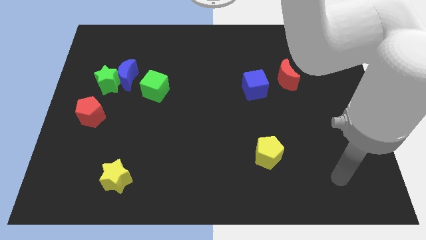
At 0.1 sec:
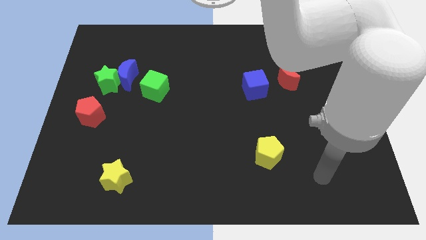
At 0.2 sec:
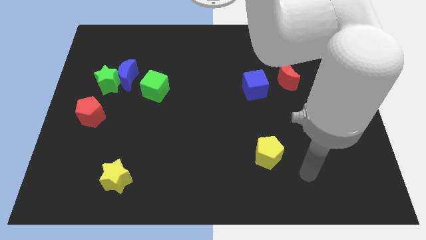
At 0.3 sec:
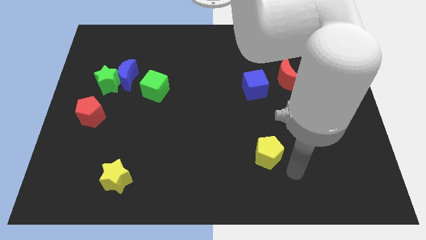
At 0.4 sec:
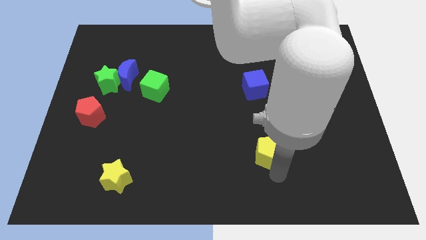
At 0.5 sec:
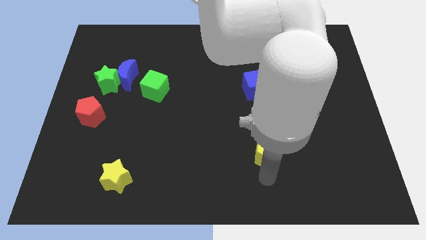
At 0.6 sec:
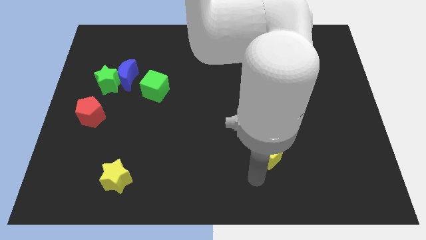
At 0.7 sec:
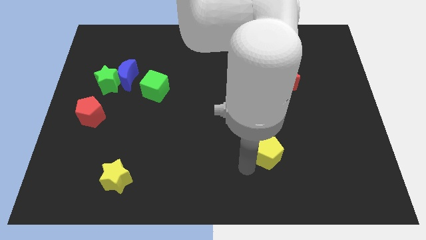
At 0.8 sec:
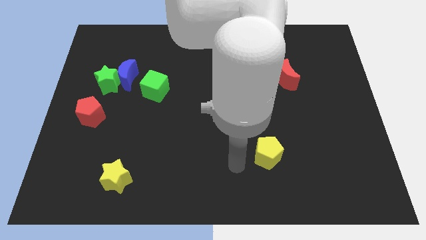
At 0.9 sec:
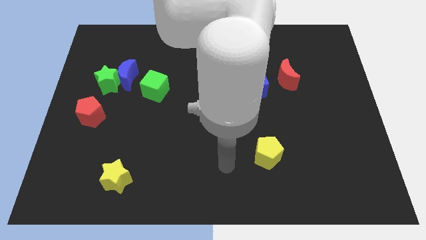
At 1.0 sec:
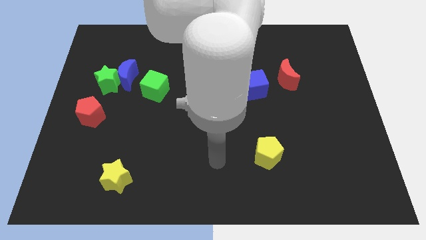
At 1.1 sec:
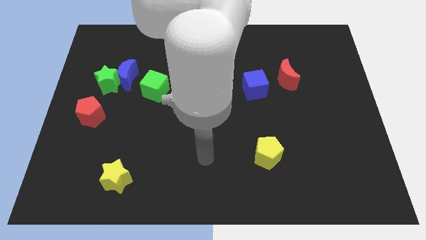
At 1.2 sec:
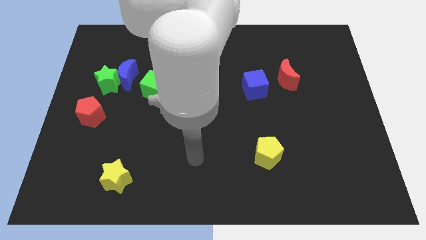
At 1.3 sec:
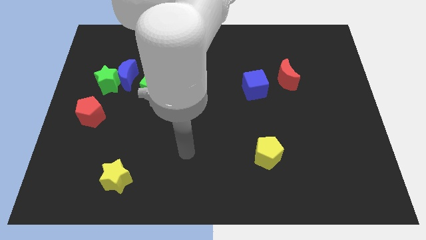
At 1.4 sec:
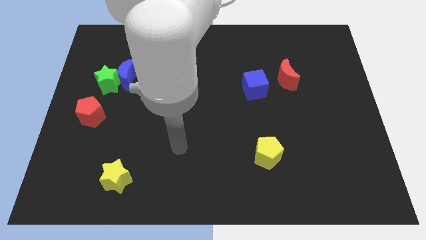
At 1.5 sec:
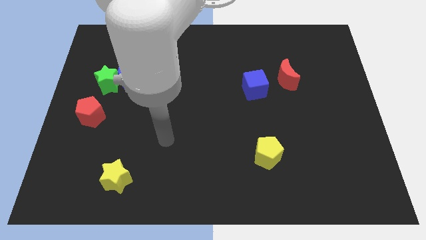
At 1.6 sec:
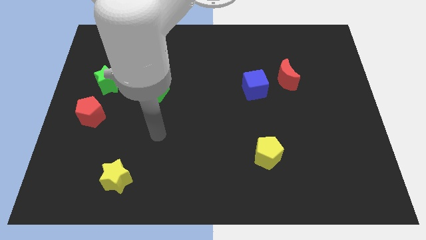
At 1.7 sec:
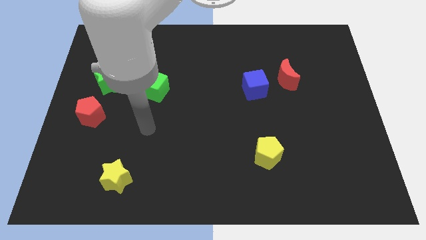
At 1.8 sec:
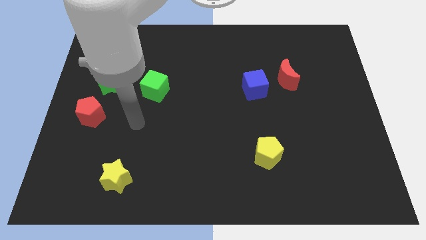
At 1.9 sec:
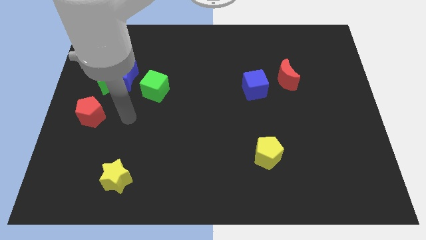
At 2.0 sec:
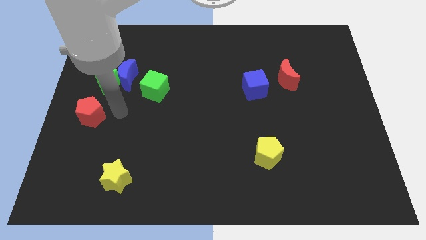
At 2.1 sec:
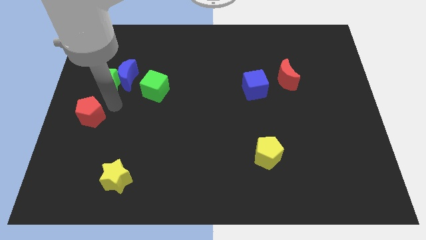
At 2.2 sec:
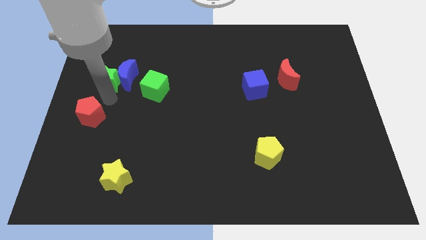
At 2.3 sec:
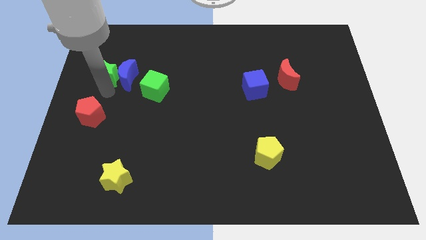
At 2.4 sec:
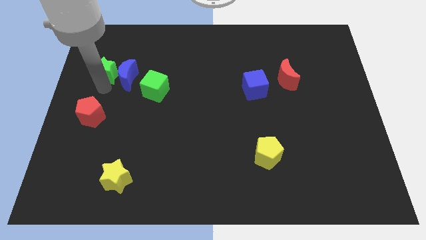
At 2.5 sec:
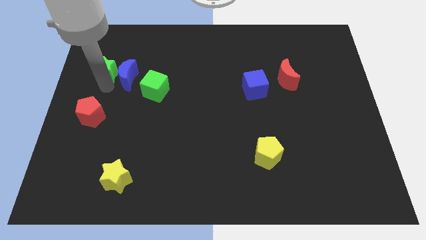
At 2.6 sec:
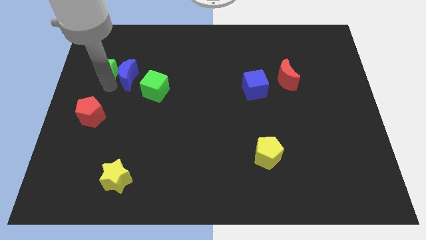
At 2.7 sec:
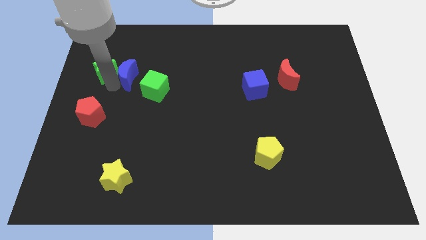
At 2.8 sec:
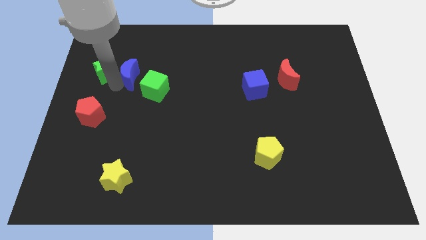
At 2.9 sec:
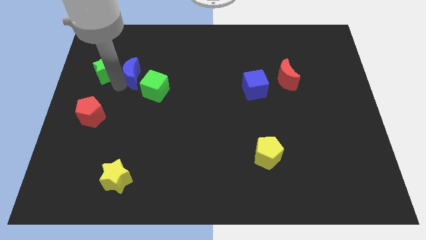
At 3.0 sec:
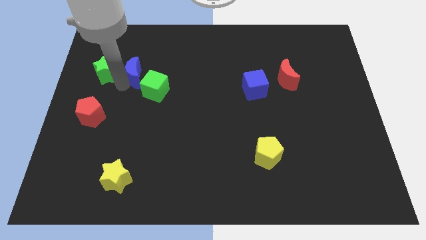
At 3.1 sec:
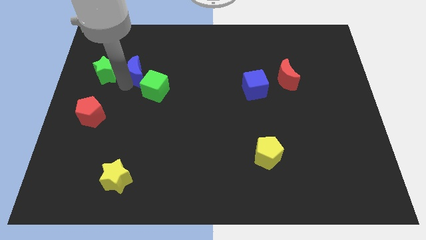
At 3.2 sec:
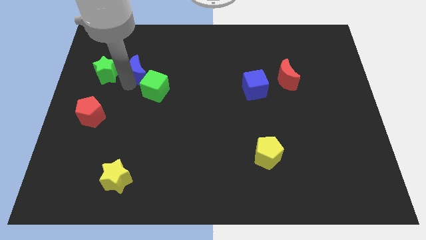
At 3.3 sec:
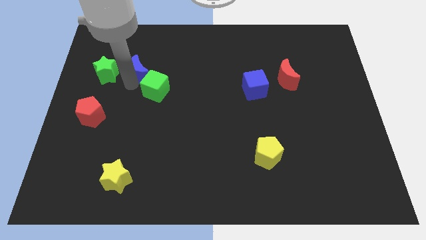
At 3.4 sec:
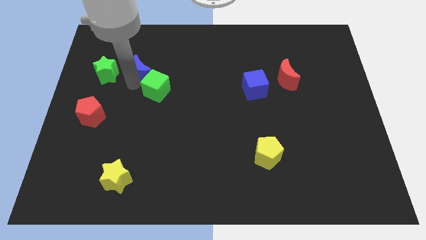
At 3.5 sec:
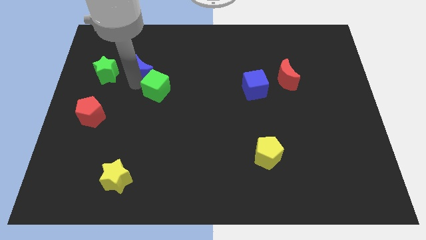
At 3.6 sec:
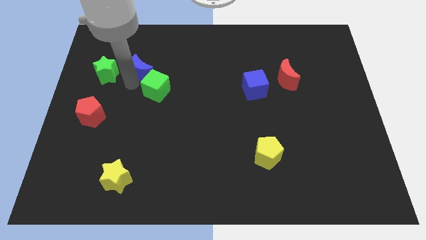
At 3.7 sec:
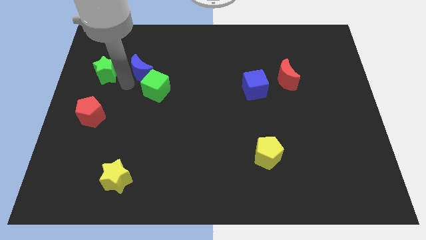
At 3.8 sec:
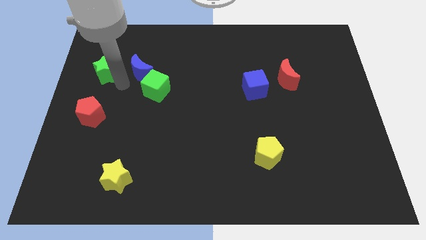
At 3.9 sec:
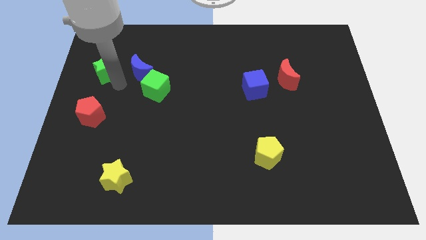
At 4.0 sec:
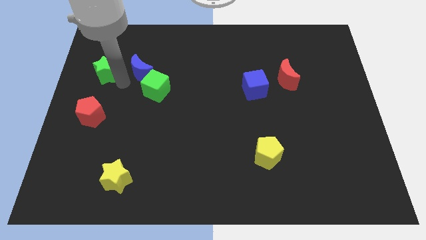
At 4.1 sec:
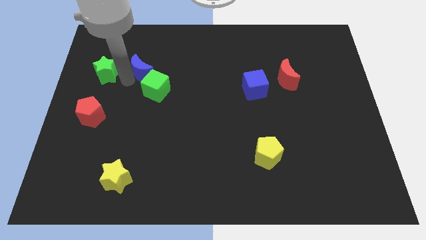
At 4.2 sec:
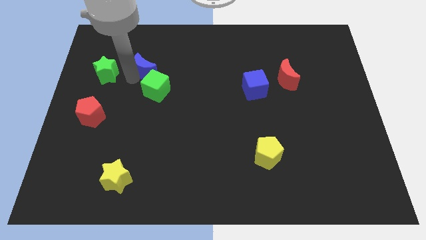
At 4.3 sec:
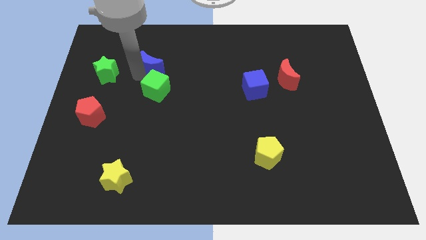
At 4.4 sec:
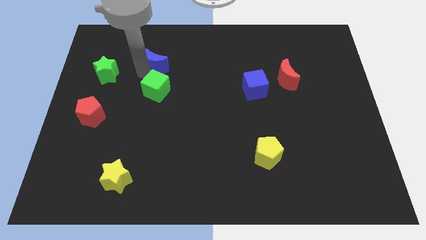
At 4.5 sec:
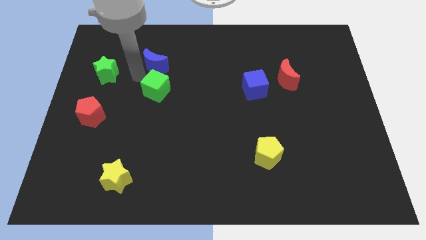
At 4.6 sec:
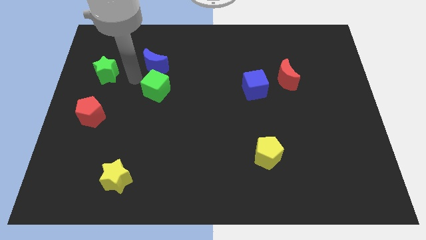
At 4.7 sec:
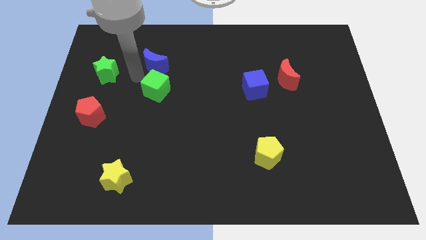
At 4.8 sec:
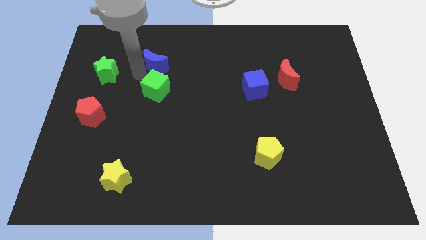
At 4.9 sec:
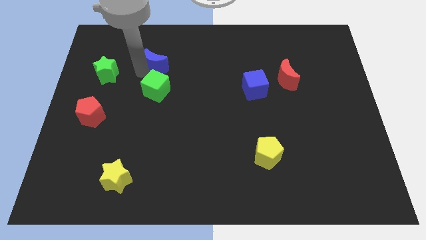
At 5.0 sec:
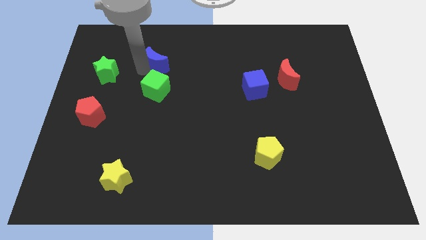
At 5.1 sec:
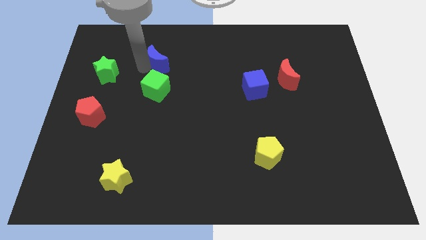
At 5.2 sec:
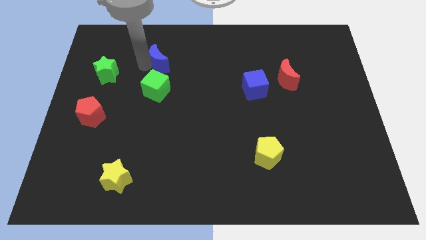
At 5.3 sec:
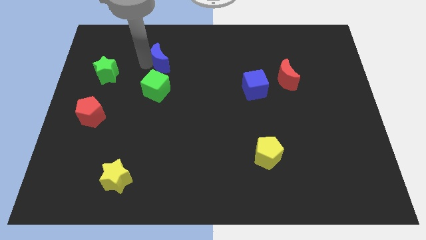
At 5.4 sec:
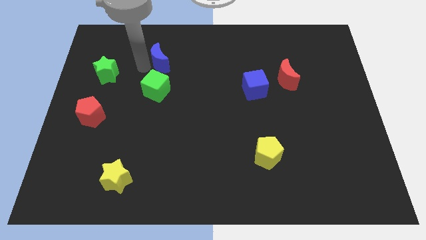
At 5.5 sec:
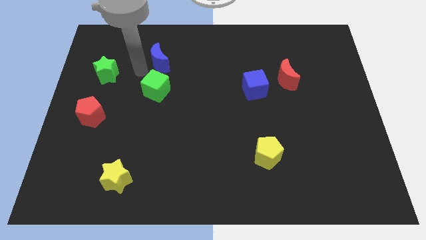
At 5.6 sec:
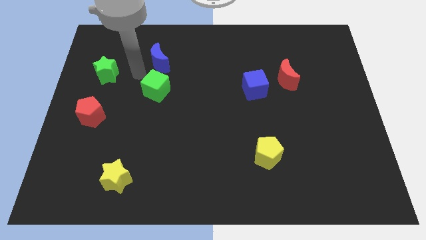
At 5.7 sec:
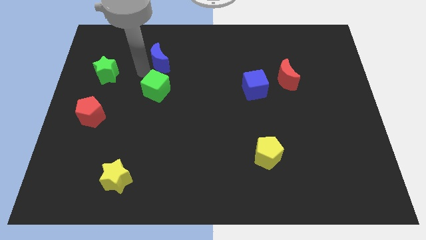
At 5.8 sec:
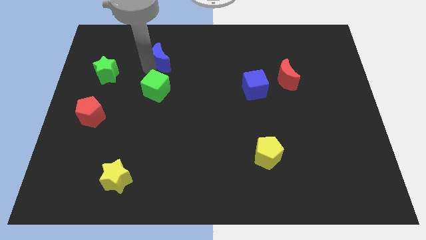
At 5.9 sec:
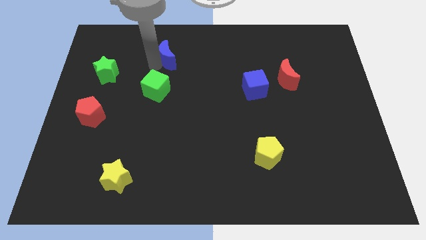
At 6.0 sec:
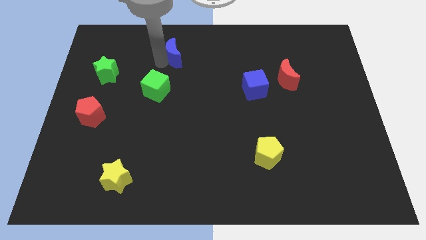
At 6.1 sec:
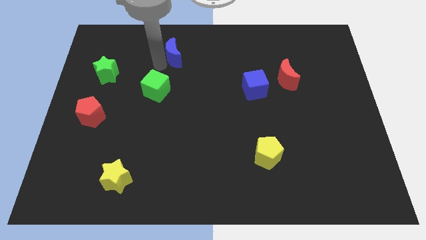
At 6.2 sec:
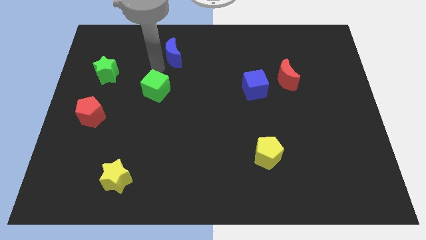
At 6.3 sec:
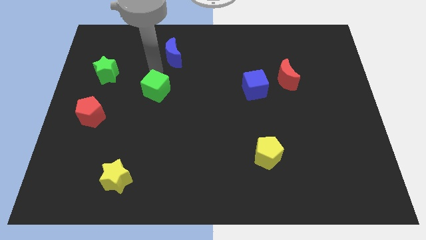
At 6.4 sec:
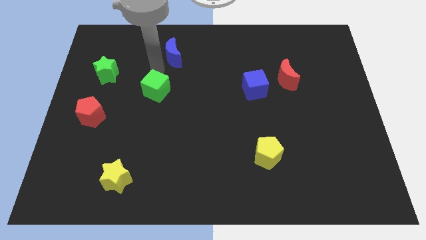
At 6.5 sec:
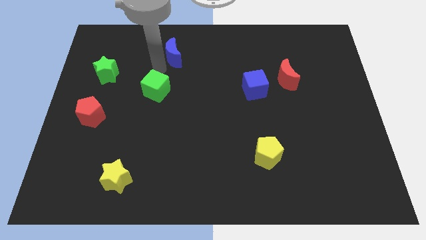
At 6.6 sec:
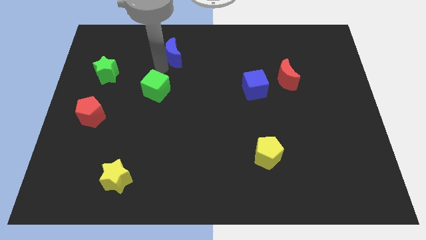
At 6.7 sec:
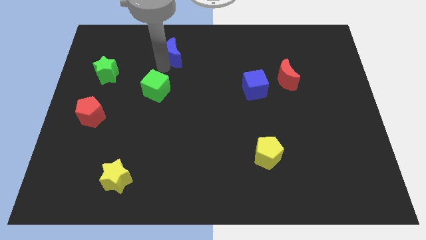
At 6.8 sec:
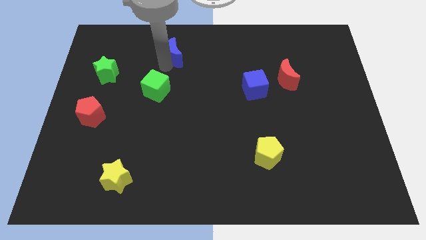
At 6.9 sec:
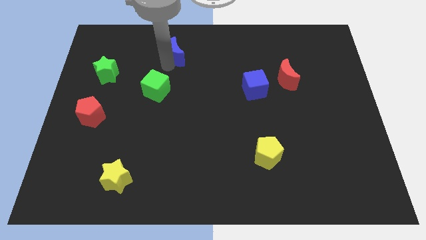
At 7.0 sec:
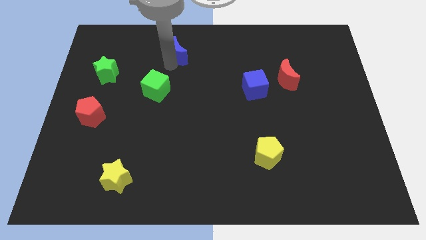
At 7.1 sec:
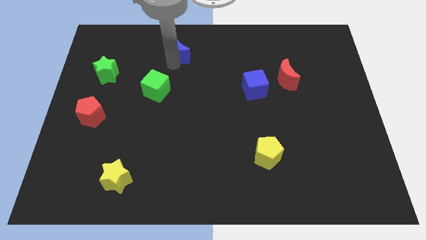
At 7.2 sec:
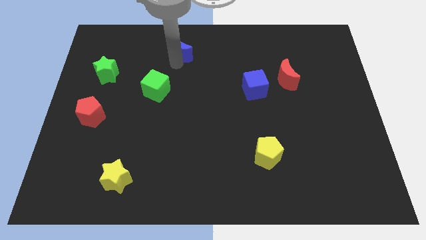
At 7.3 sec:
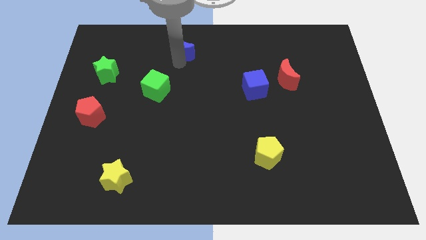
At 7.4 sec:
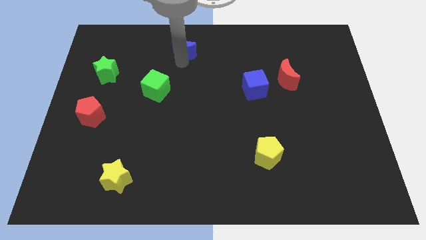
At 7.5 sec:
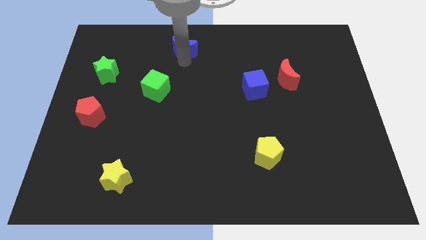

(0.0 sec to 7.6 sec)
slide the blue moon to the top side
